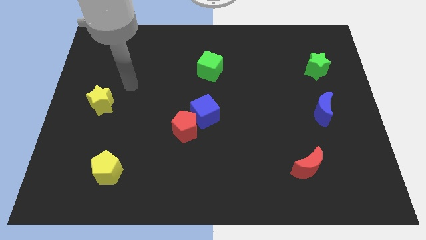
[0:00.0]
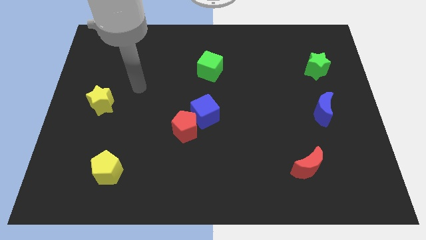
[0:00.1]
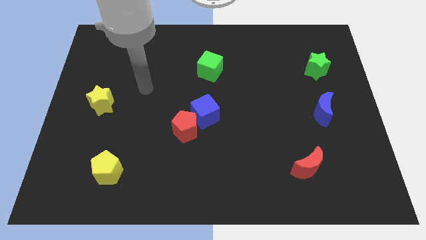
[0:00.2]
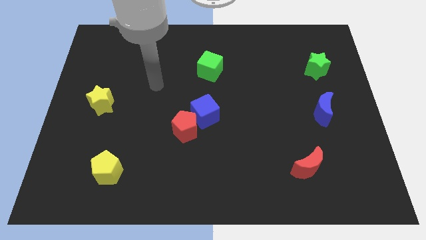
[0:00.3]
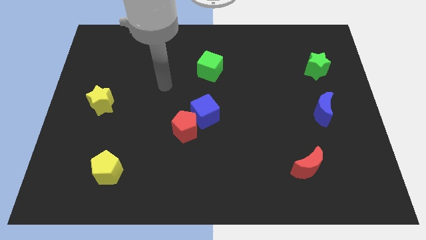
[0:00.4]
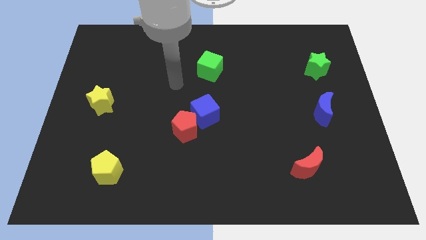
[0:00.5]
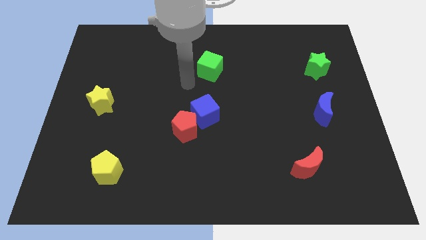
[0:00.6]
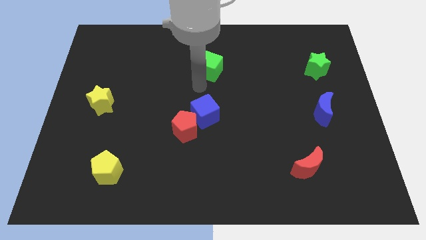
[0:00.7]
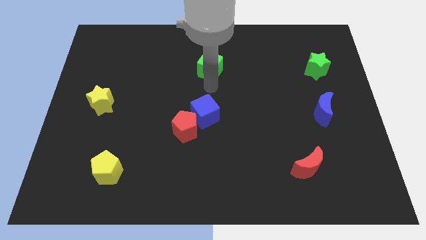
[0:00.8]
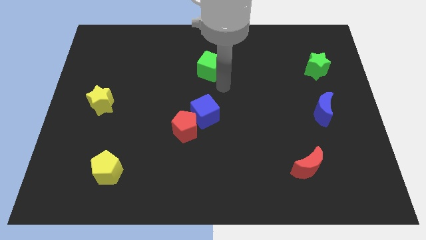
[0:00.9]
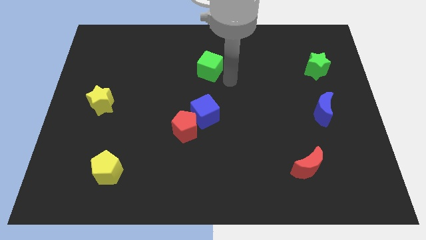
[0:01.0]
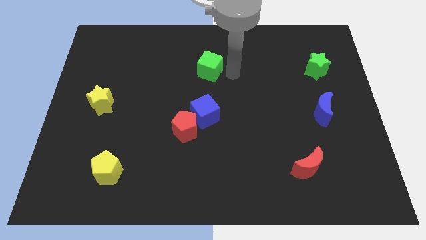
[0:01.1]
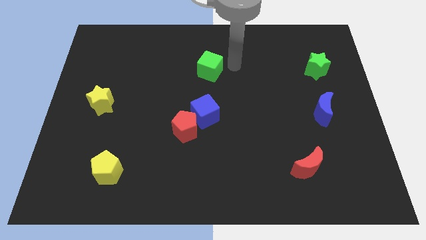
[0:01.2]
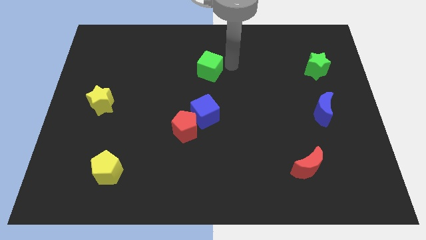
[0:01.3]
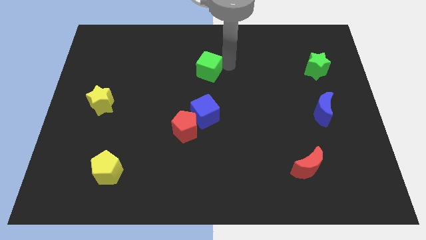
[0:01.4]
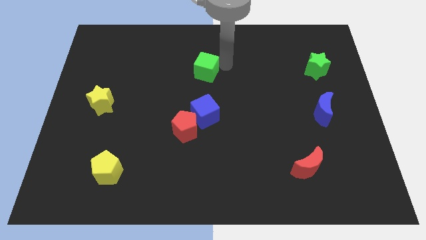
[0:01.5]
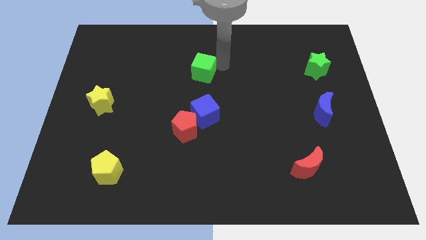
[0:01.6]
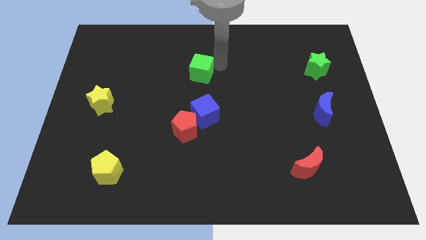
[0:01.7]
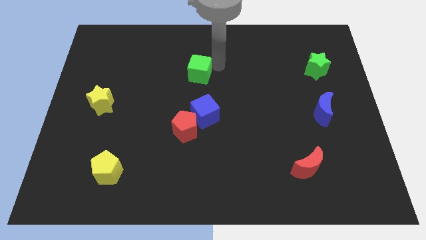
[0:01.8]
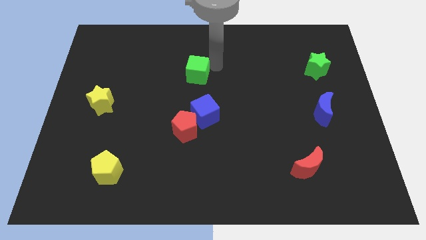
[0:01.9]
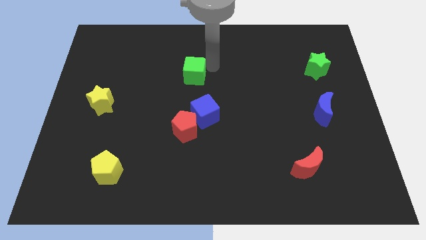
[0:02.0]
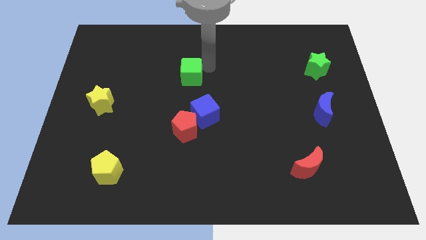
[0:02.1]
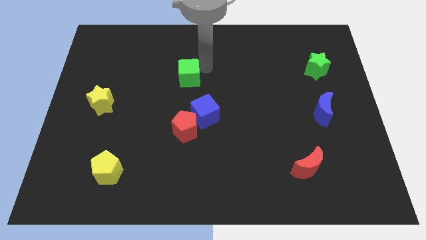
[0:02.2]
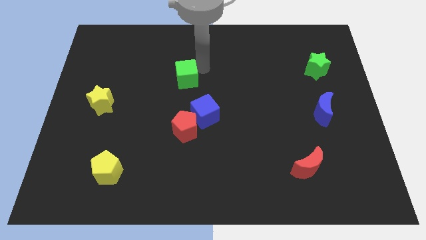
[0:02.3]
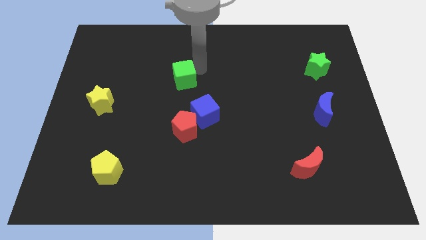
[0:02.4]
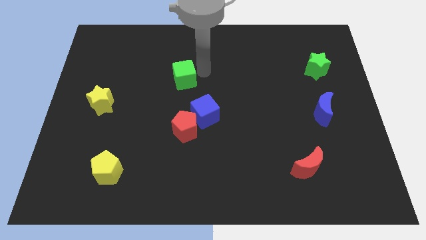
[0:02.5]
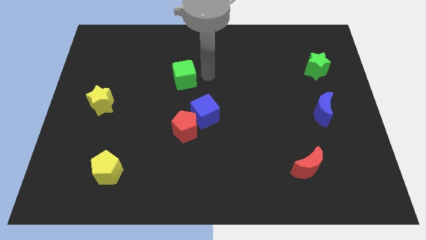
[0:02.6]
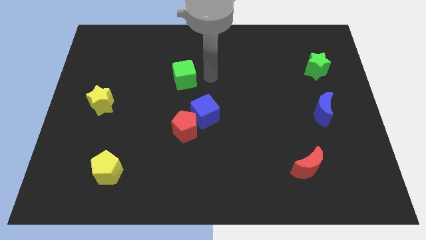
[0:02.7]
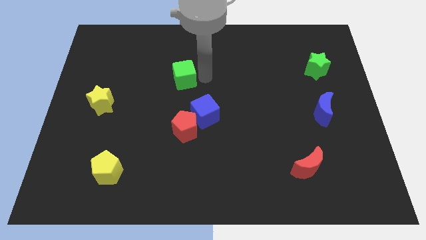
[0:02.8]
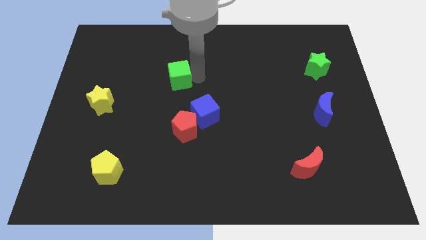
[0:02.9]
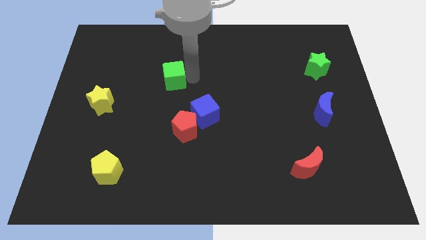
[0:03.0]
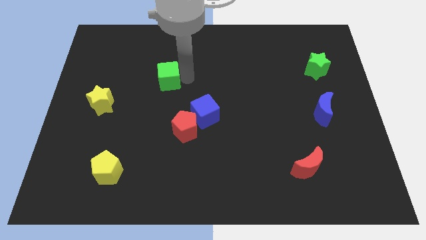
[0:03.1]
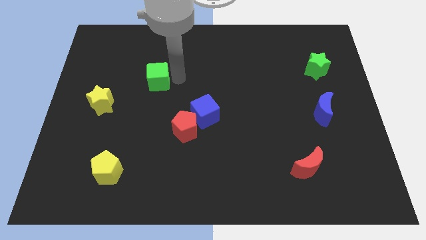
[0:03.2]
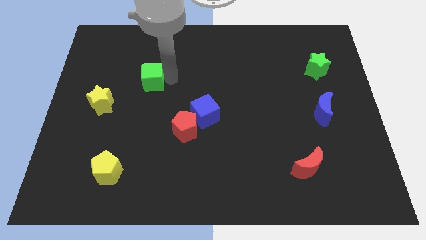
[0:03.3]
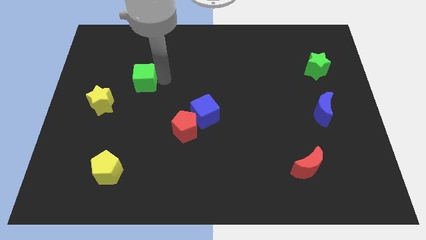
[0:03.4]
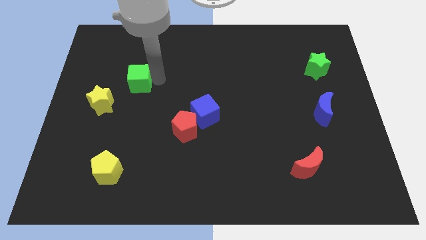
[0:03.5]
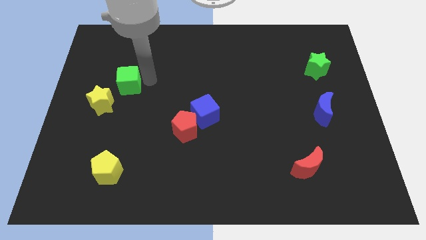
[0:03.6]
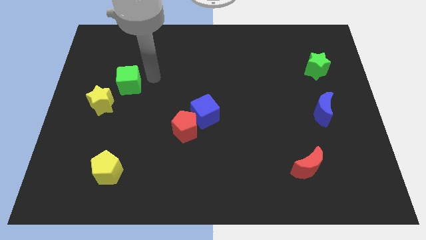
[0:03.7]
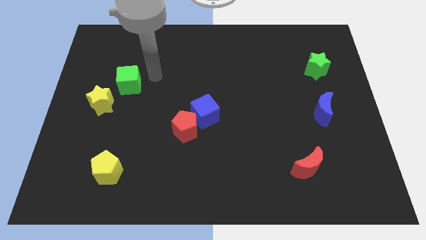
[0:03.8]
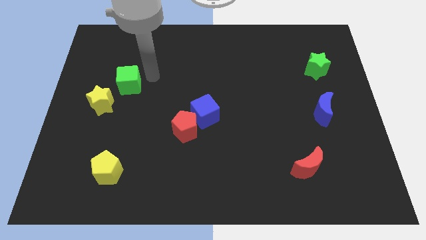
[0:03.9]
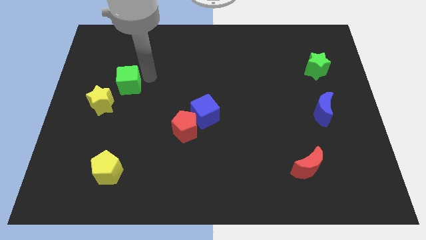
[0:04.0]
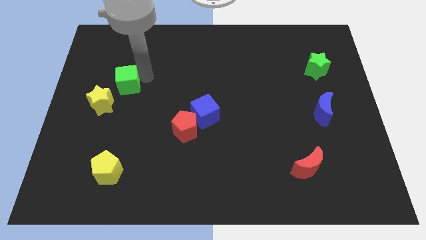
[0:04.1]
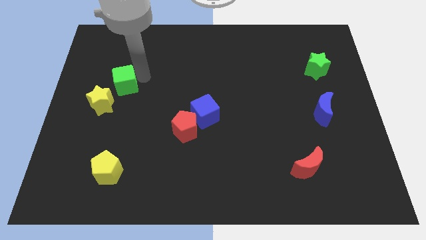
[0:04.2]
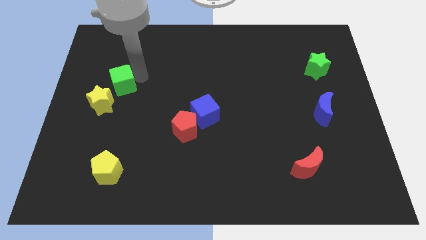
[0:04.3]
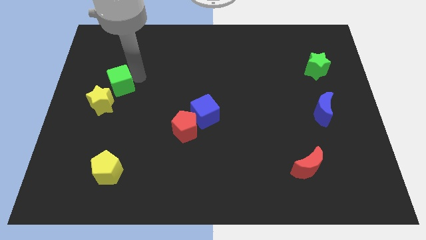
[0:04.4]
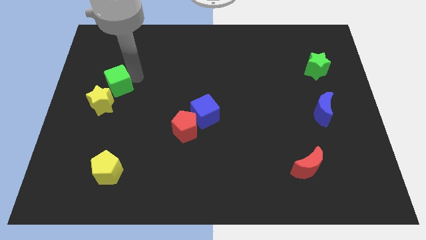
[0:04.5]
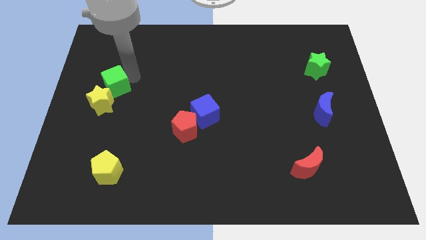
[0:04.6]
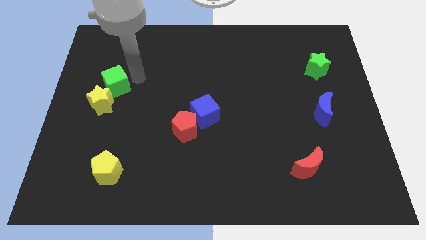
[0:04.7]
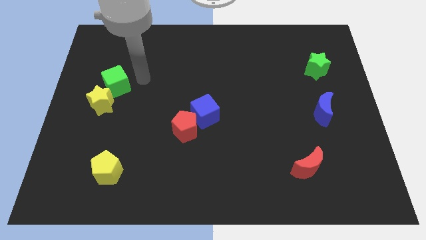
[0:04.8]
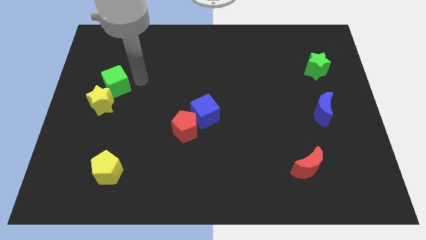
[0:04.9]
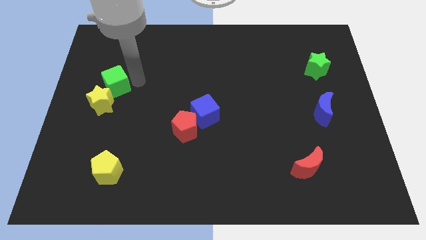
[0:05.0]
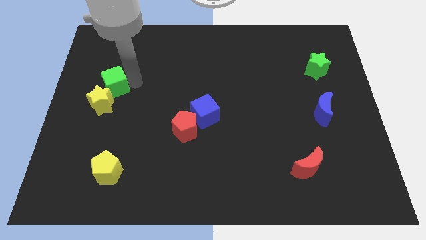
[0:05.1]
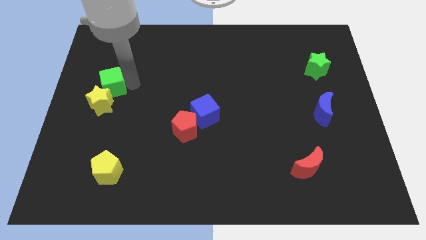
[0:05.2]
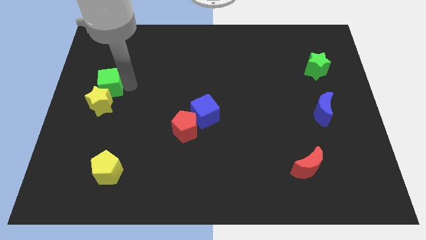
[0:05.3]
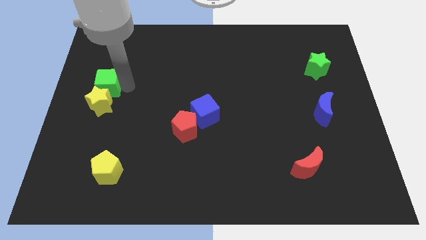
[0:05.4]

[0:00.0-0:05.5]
put the green cube to the left side

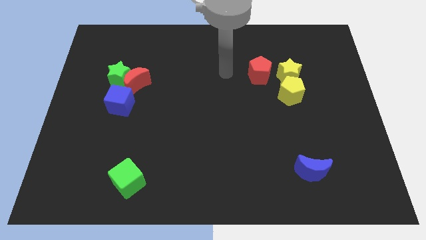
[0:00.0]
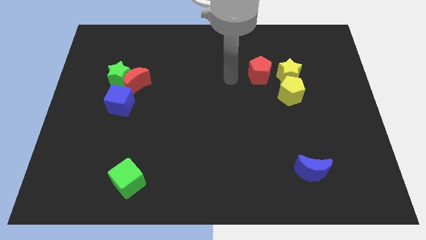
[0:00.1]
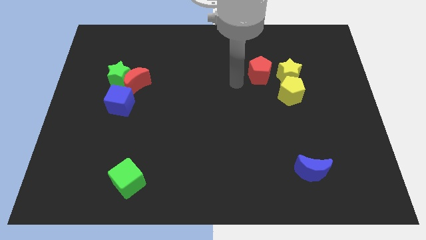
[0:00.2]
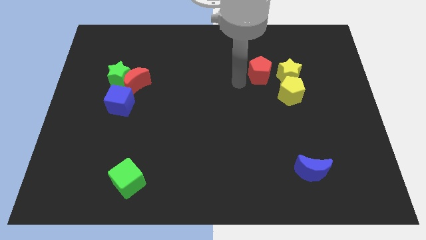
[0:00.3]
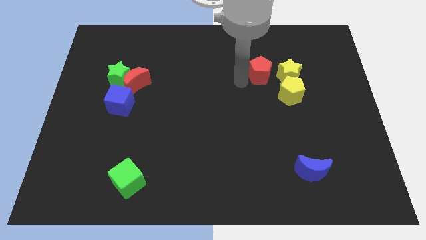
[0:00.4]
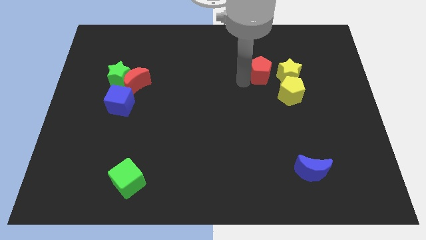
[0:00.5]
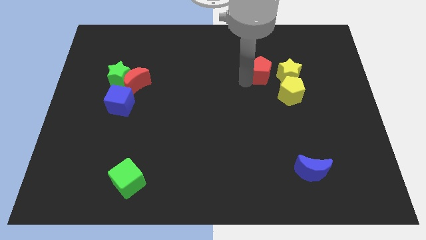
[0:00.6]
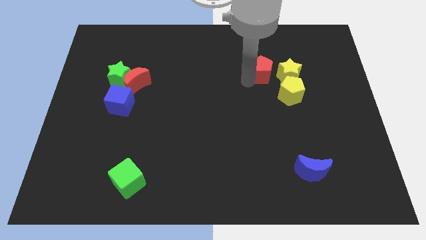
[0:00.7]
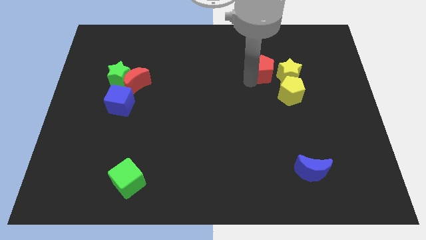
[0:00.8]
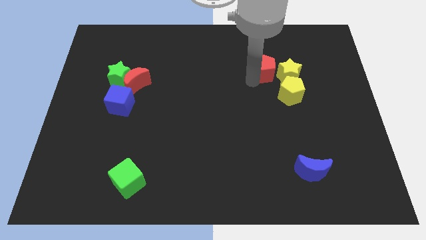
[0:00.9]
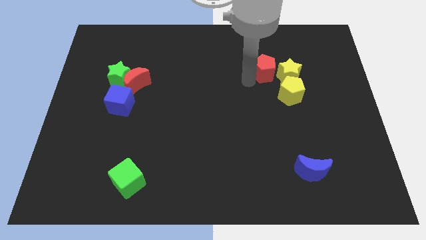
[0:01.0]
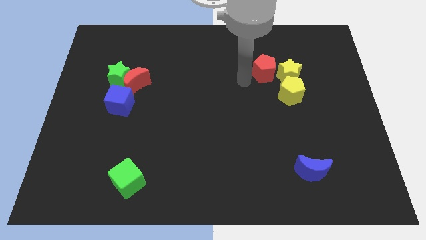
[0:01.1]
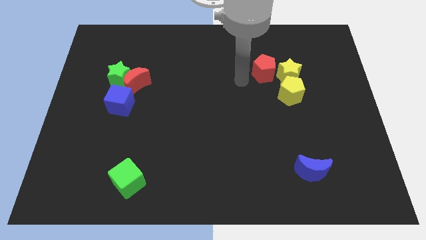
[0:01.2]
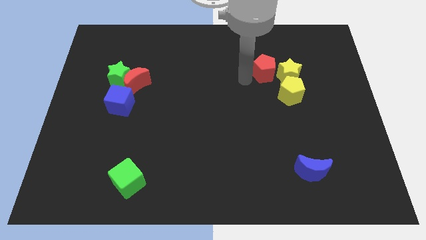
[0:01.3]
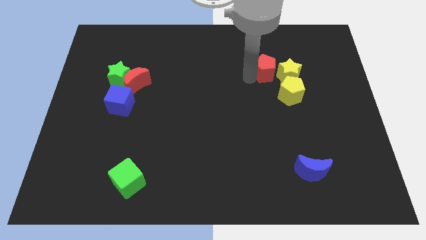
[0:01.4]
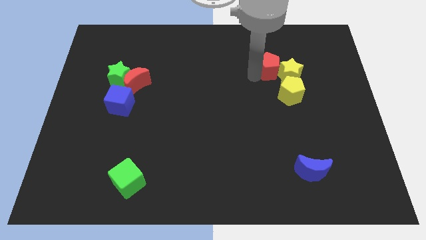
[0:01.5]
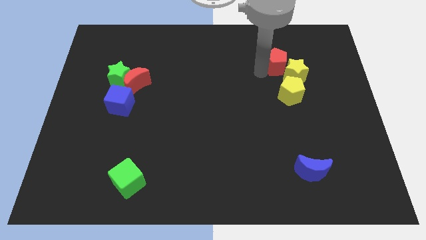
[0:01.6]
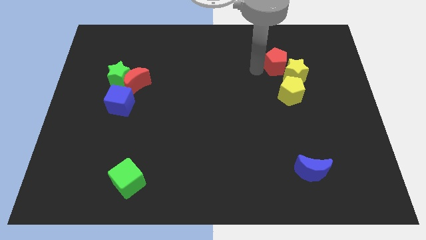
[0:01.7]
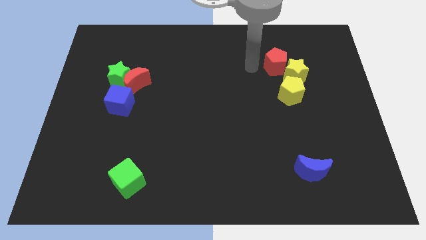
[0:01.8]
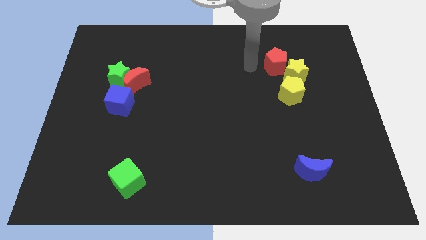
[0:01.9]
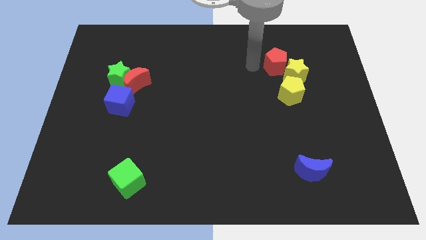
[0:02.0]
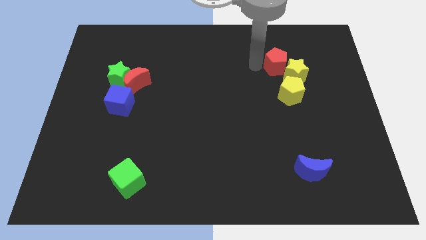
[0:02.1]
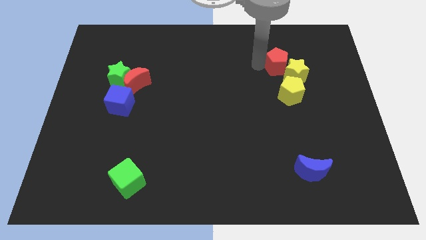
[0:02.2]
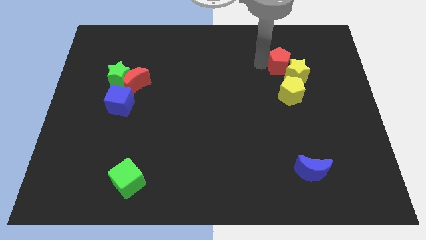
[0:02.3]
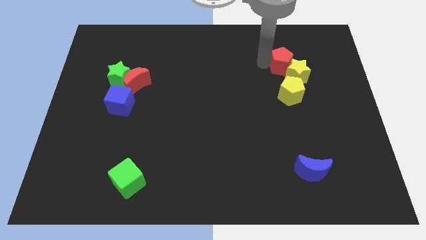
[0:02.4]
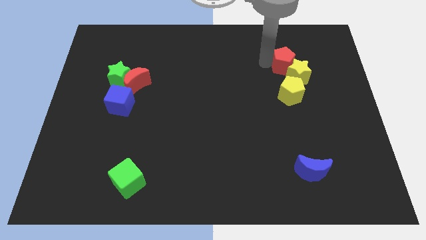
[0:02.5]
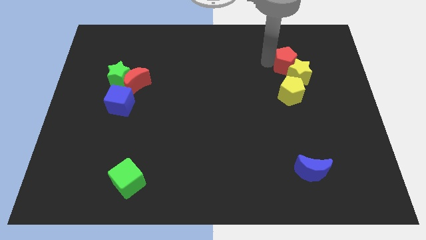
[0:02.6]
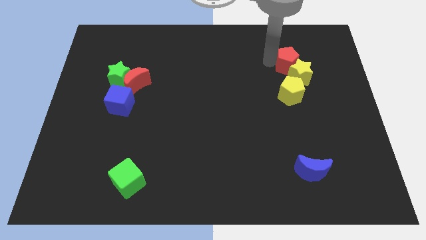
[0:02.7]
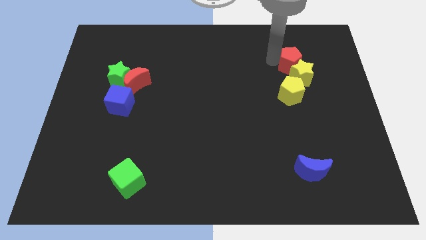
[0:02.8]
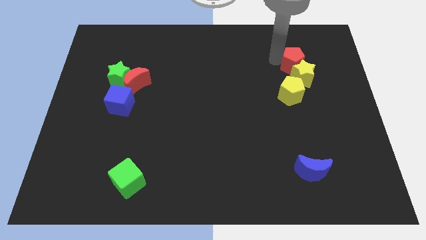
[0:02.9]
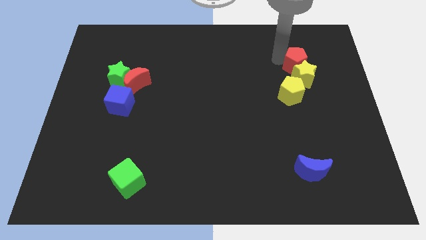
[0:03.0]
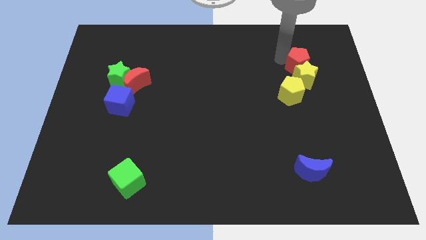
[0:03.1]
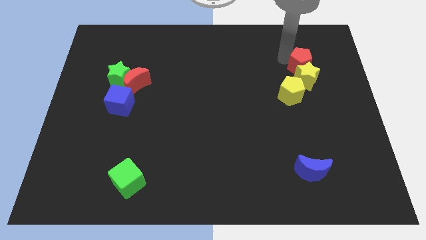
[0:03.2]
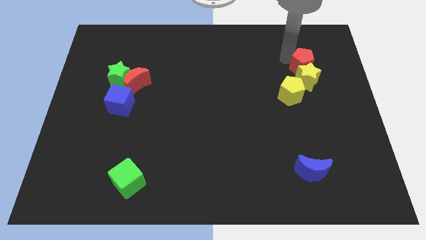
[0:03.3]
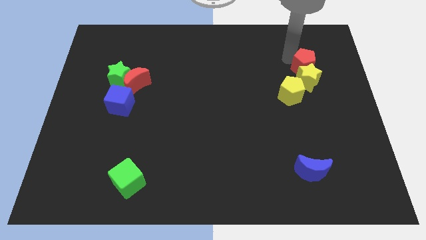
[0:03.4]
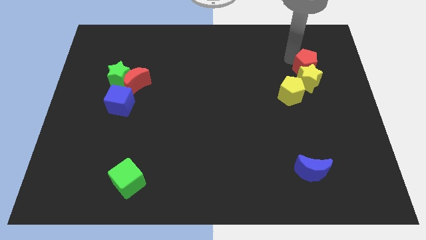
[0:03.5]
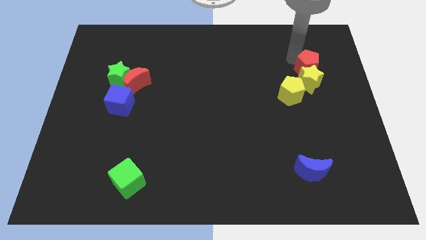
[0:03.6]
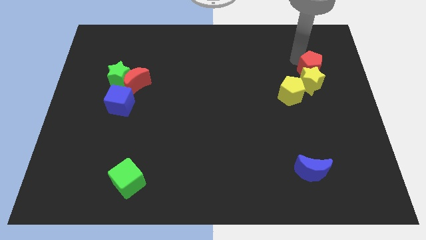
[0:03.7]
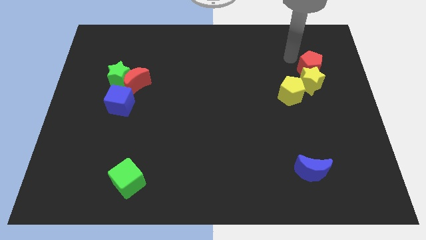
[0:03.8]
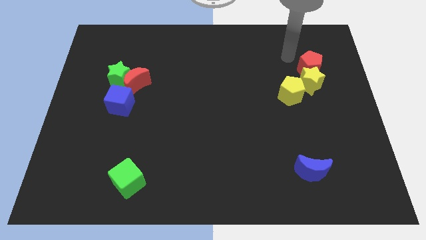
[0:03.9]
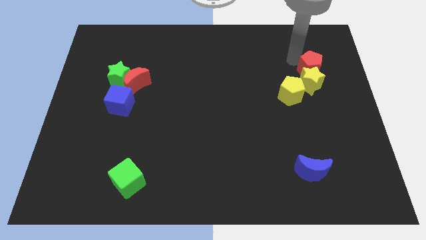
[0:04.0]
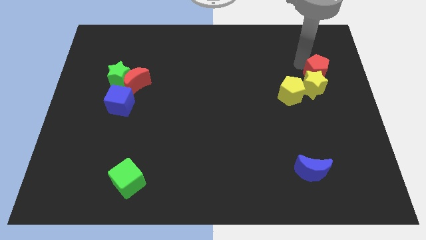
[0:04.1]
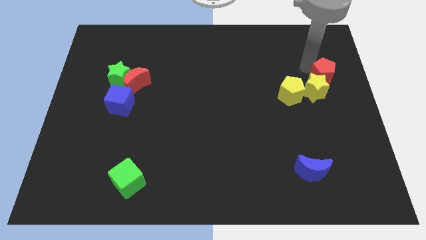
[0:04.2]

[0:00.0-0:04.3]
put the red pentagon to the right side of the board
